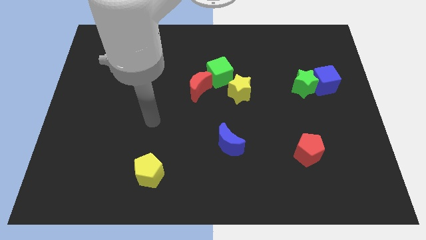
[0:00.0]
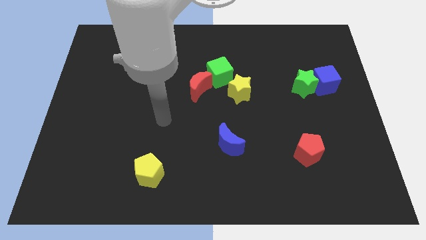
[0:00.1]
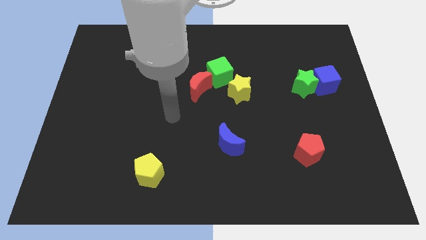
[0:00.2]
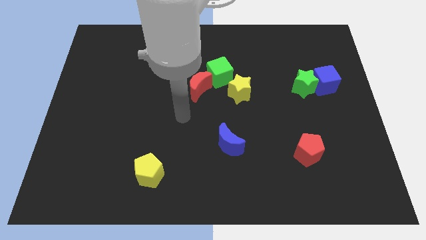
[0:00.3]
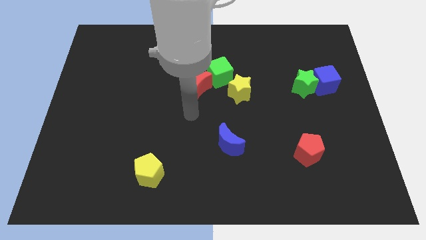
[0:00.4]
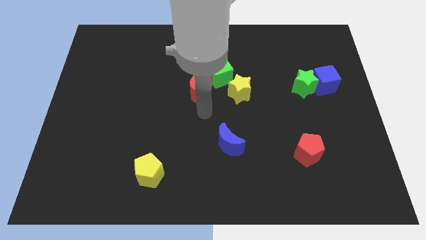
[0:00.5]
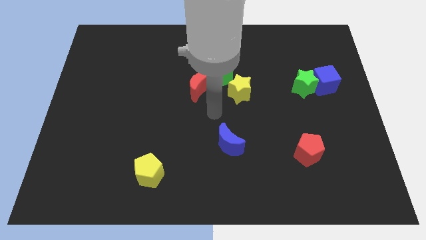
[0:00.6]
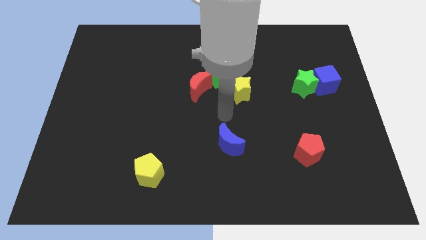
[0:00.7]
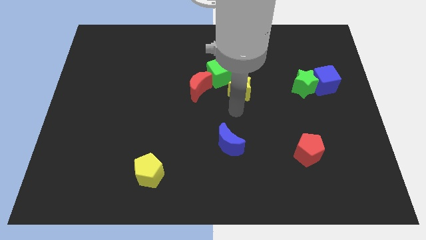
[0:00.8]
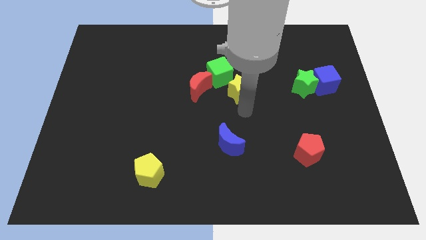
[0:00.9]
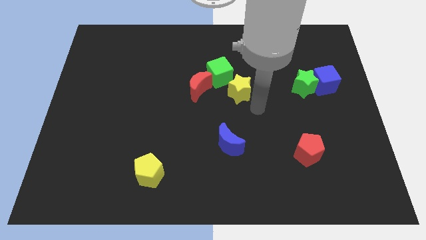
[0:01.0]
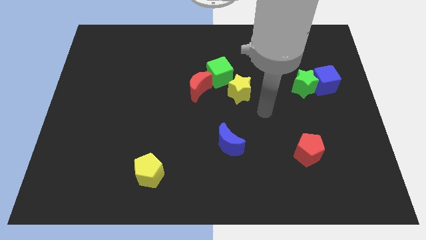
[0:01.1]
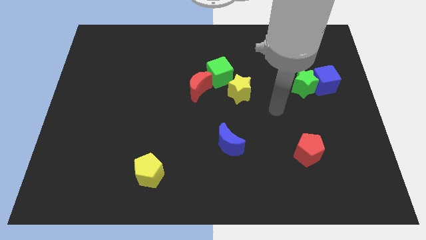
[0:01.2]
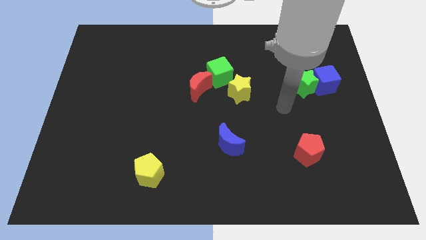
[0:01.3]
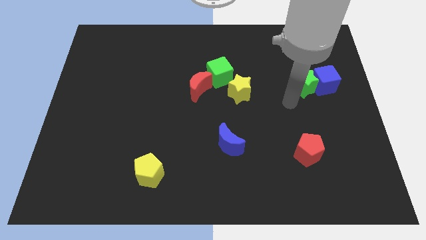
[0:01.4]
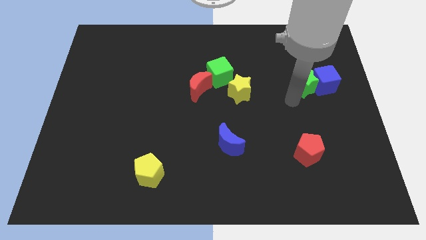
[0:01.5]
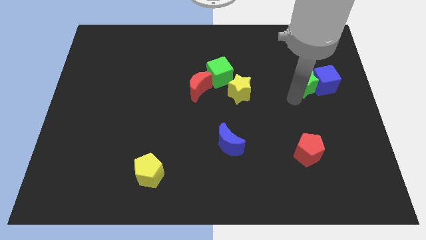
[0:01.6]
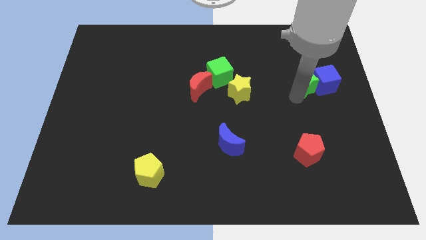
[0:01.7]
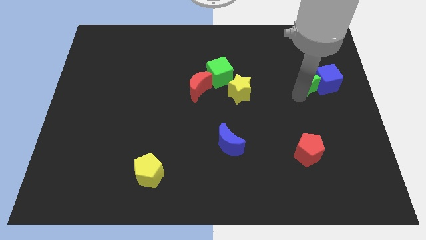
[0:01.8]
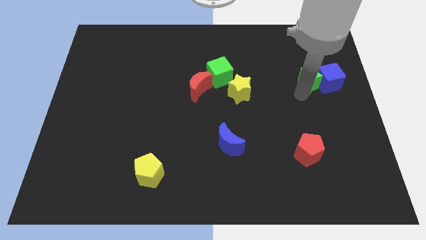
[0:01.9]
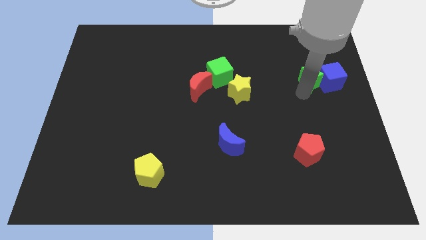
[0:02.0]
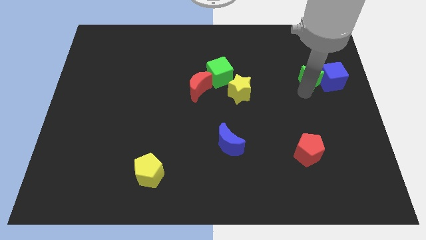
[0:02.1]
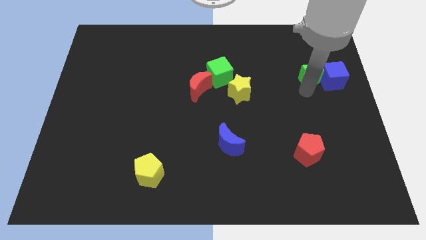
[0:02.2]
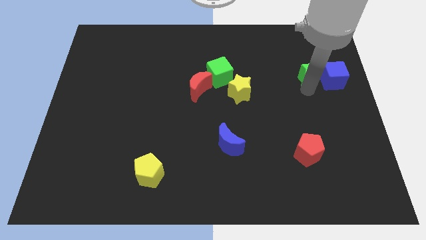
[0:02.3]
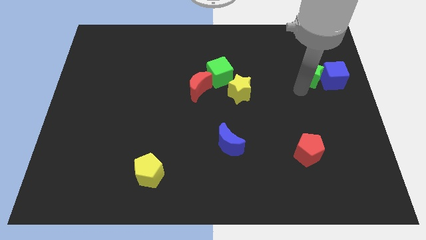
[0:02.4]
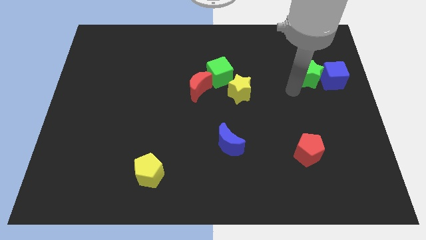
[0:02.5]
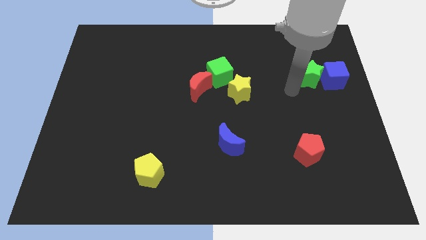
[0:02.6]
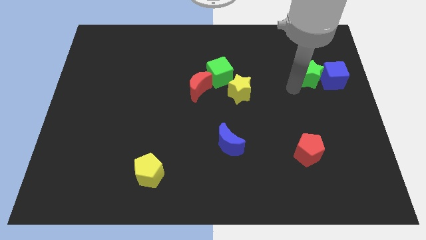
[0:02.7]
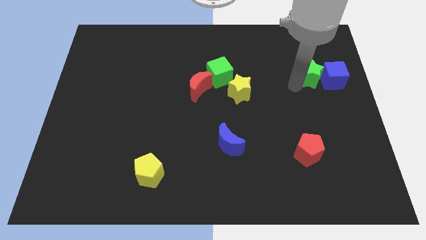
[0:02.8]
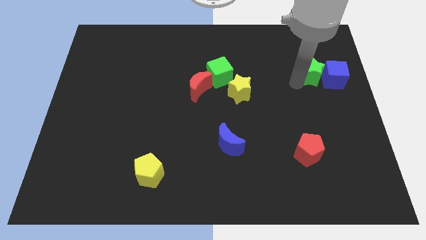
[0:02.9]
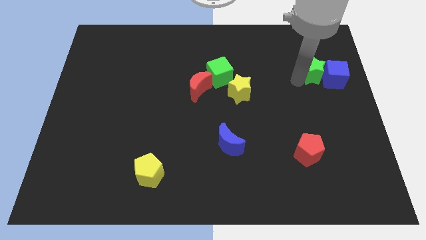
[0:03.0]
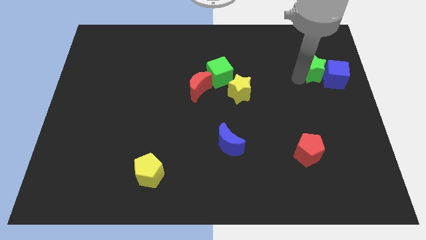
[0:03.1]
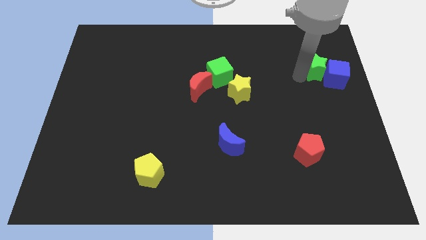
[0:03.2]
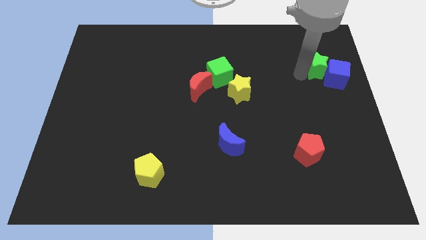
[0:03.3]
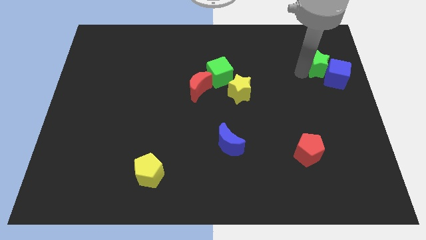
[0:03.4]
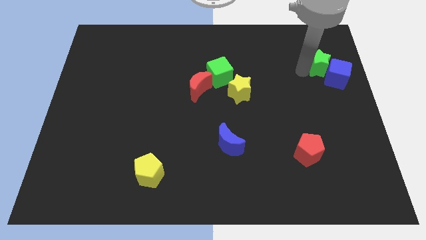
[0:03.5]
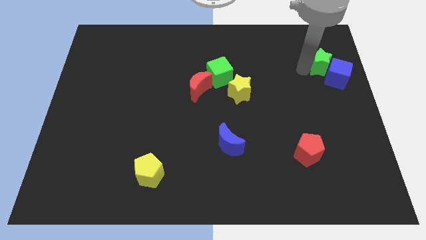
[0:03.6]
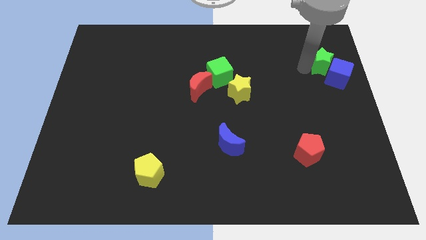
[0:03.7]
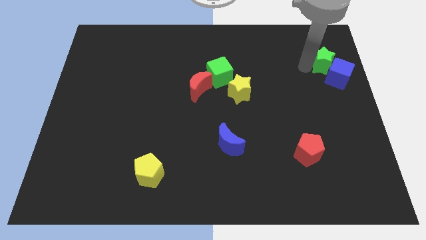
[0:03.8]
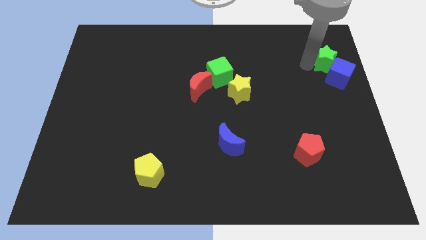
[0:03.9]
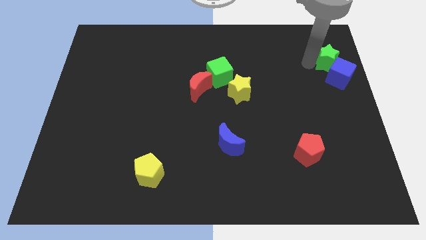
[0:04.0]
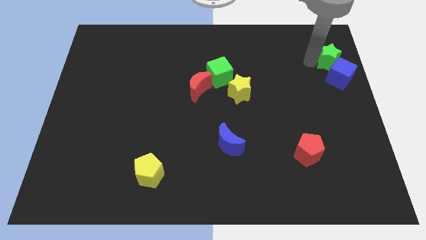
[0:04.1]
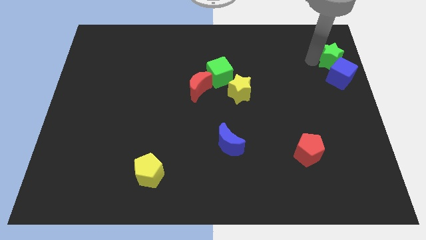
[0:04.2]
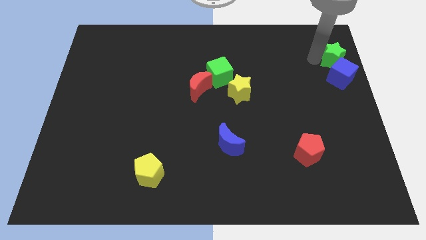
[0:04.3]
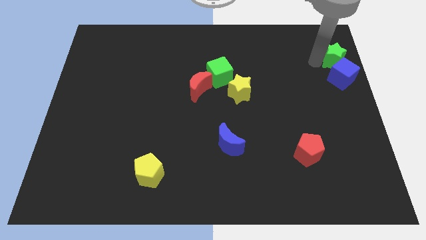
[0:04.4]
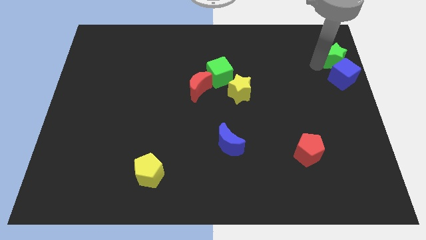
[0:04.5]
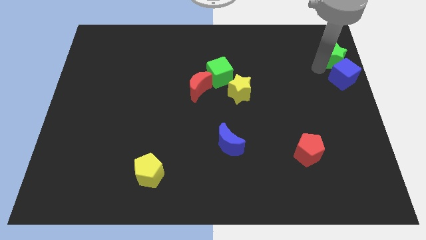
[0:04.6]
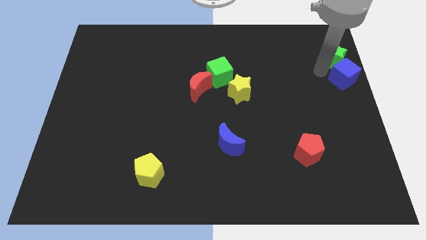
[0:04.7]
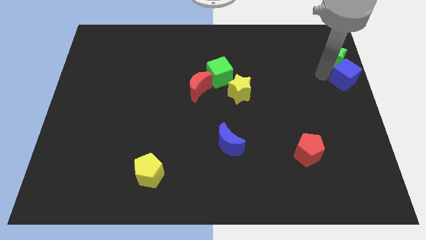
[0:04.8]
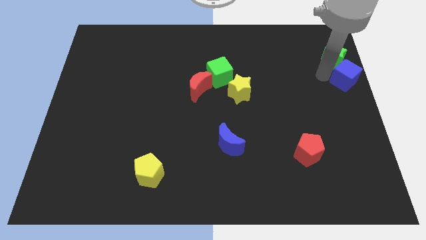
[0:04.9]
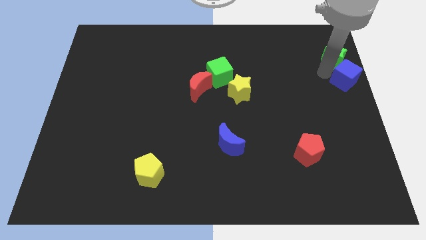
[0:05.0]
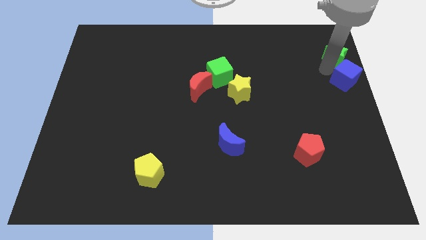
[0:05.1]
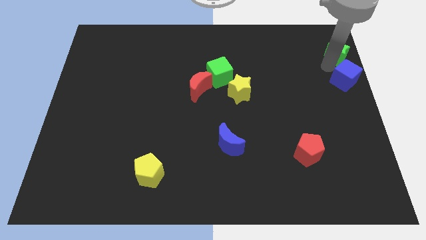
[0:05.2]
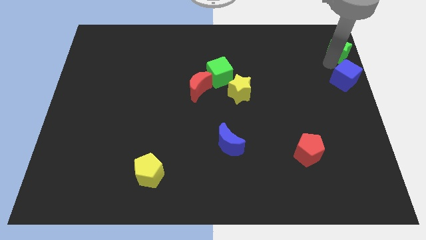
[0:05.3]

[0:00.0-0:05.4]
push the green star to the upper right corner
